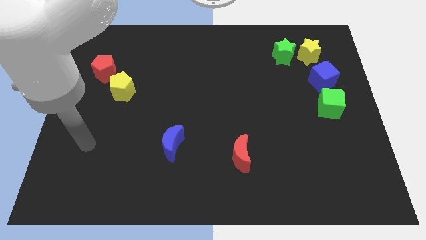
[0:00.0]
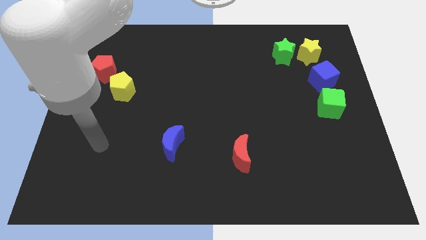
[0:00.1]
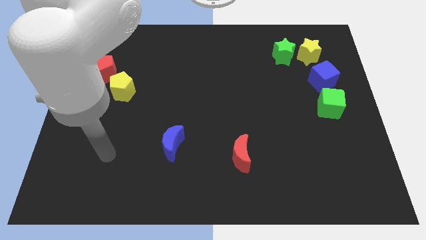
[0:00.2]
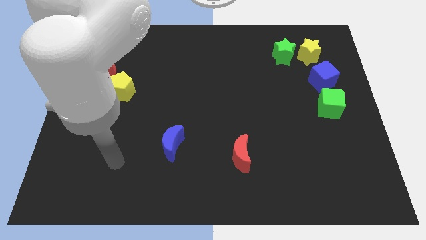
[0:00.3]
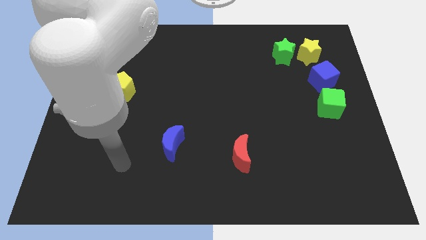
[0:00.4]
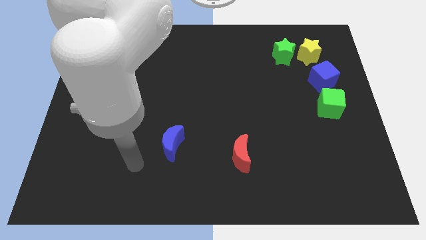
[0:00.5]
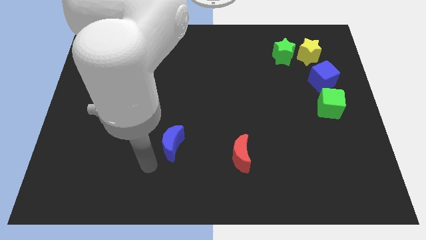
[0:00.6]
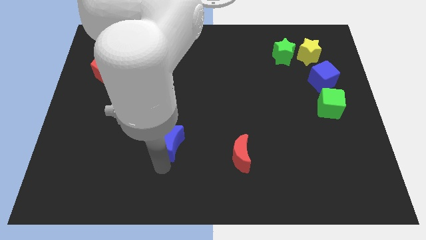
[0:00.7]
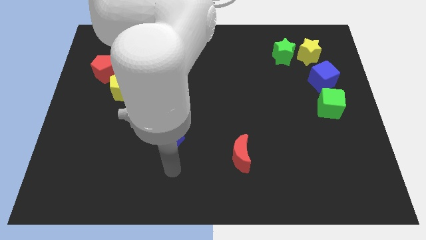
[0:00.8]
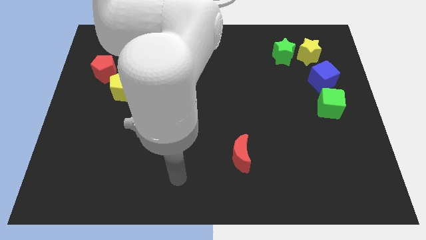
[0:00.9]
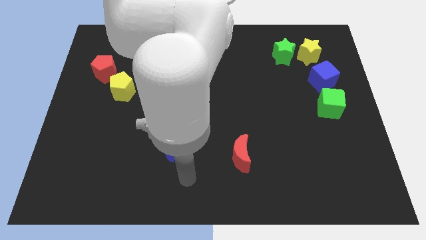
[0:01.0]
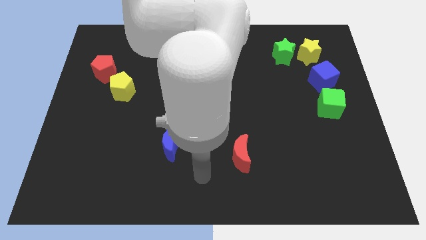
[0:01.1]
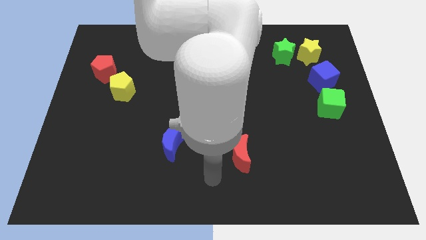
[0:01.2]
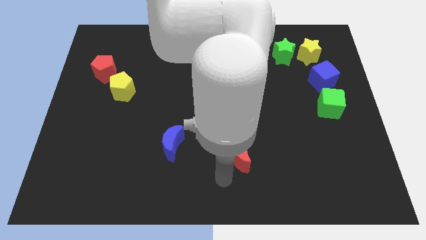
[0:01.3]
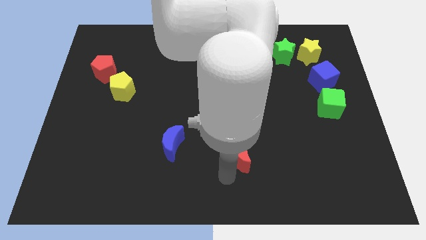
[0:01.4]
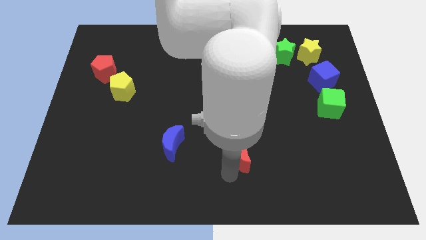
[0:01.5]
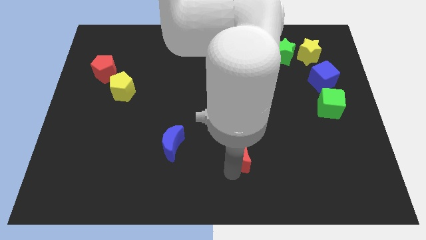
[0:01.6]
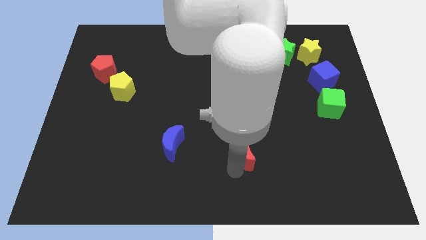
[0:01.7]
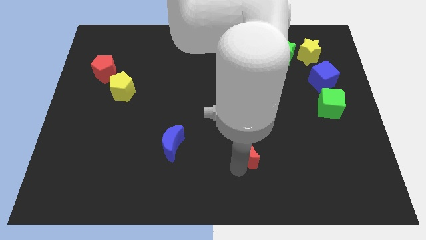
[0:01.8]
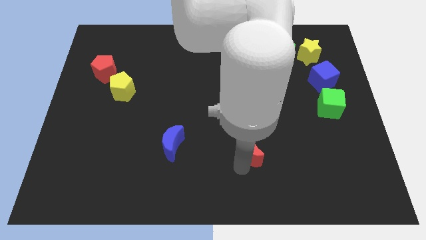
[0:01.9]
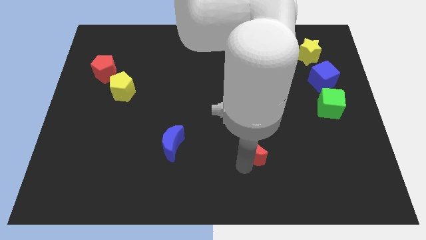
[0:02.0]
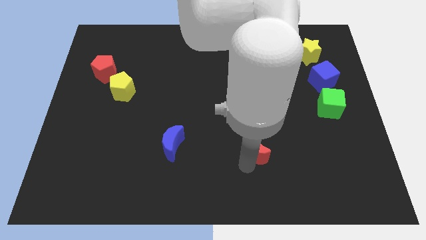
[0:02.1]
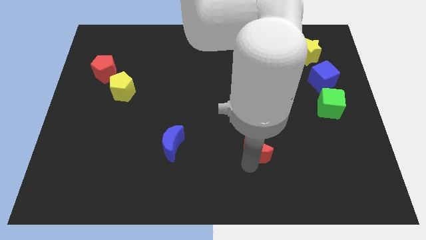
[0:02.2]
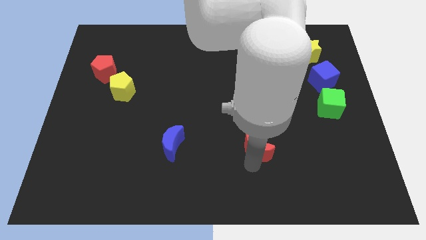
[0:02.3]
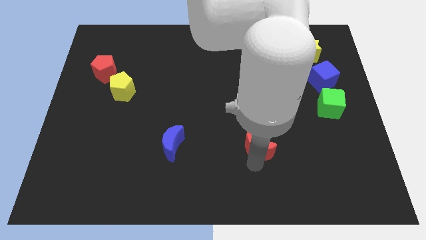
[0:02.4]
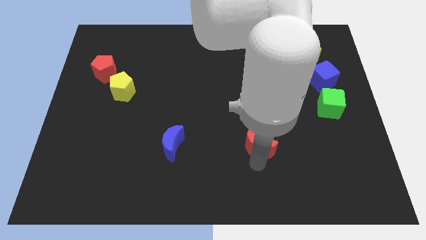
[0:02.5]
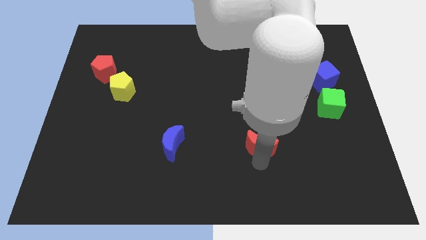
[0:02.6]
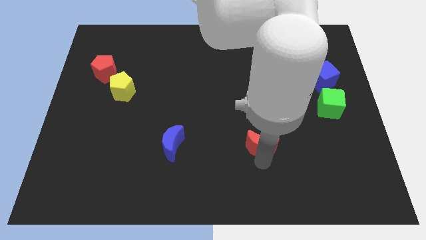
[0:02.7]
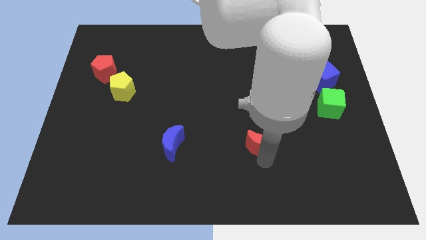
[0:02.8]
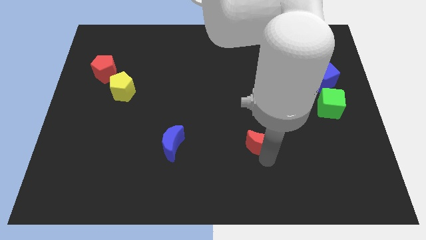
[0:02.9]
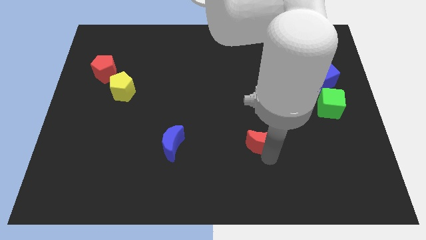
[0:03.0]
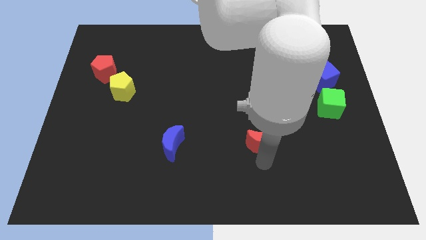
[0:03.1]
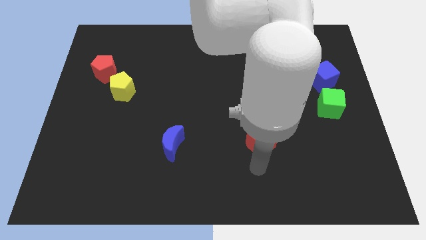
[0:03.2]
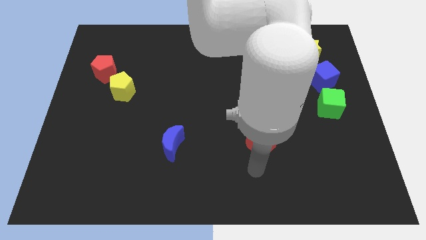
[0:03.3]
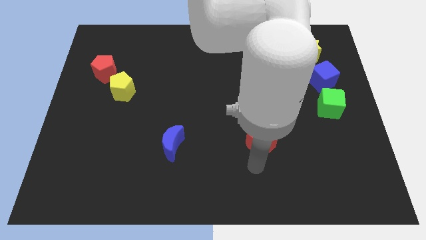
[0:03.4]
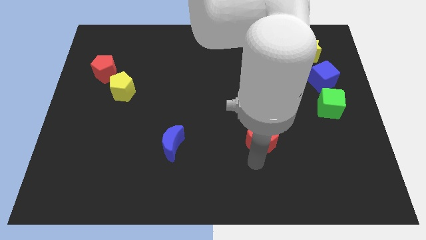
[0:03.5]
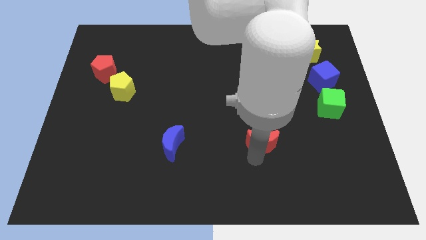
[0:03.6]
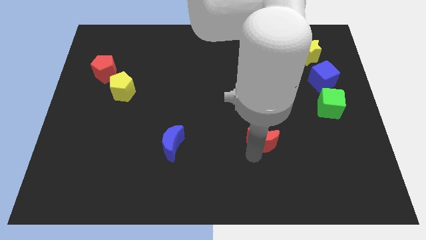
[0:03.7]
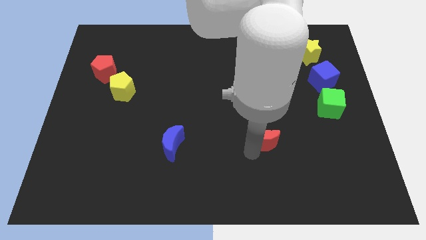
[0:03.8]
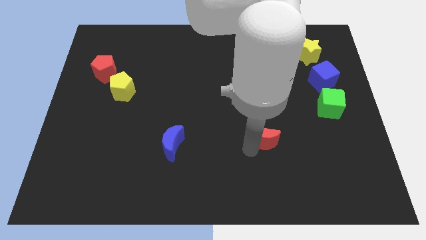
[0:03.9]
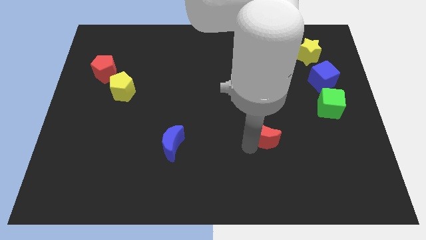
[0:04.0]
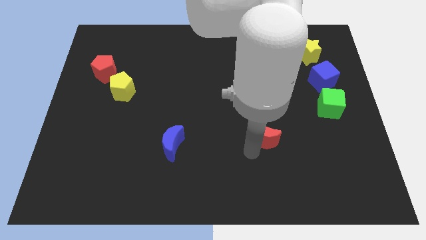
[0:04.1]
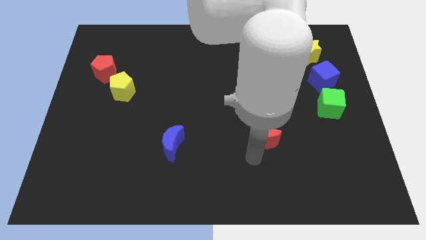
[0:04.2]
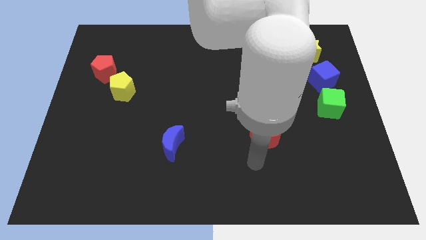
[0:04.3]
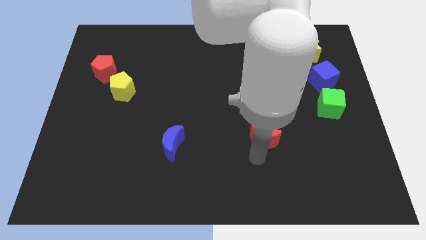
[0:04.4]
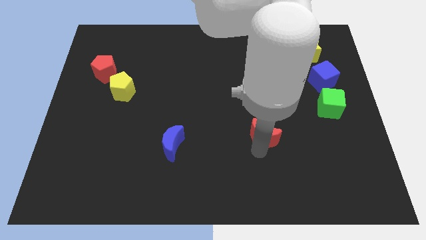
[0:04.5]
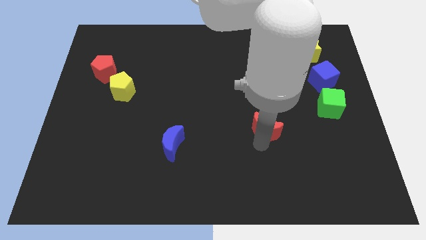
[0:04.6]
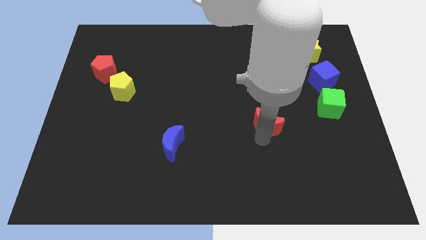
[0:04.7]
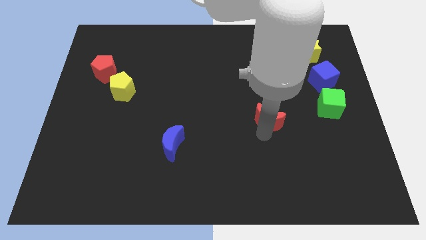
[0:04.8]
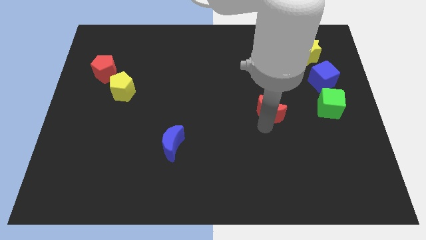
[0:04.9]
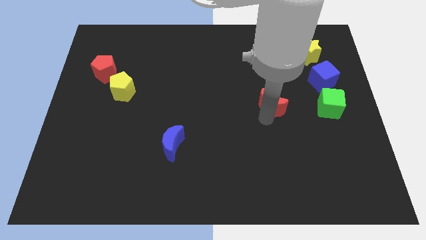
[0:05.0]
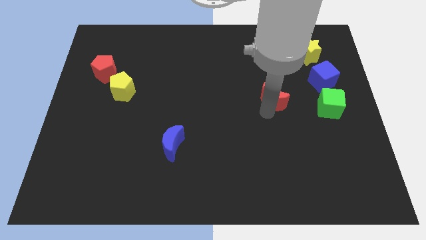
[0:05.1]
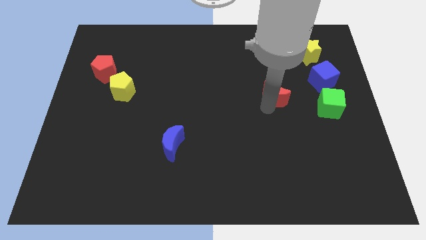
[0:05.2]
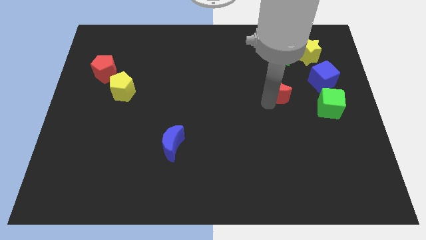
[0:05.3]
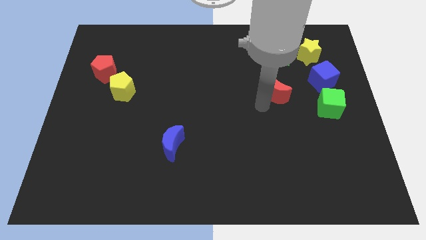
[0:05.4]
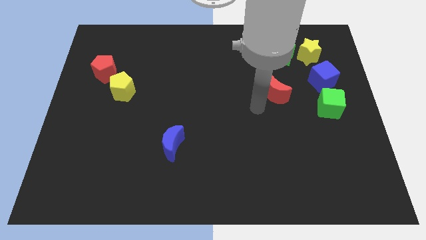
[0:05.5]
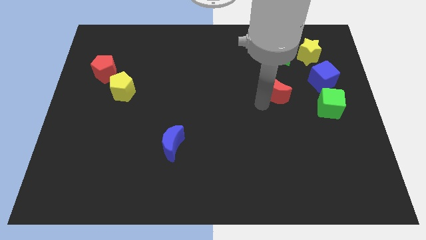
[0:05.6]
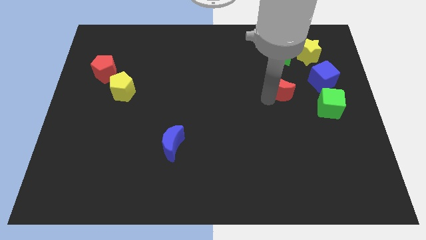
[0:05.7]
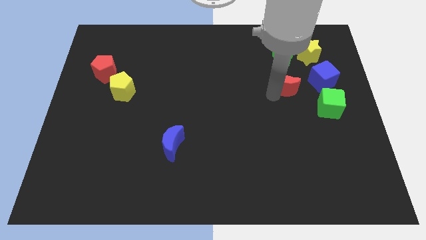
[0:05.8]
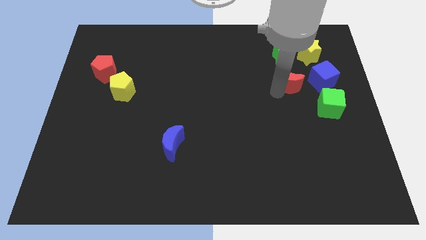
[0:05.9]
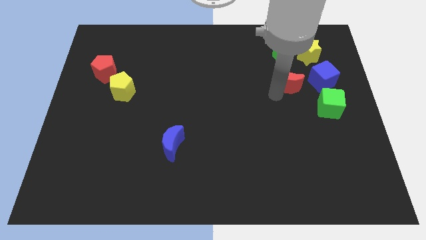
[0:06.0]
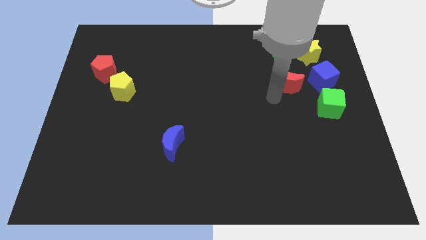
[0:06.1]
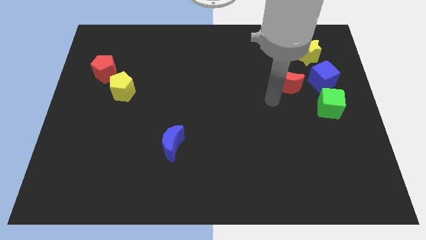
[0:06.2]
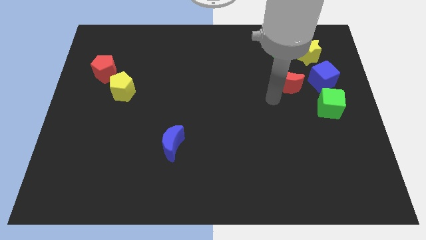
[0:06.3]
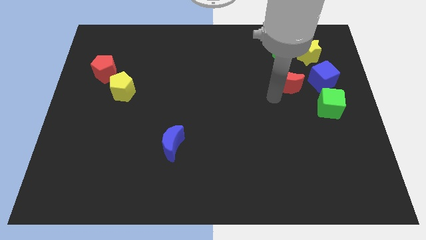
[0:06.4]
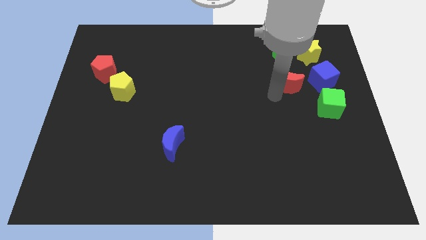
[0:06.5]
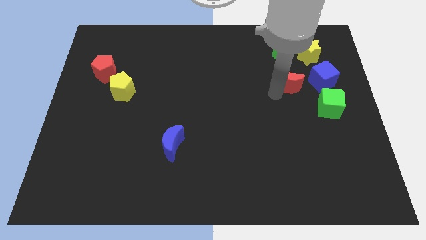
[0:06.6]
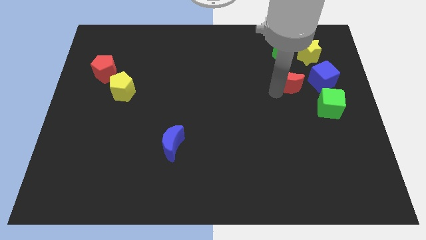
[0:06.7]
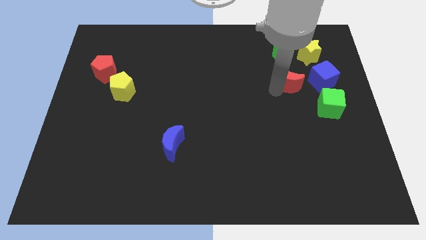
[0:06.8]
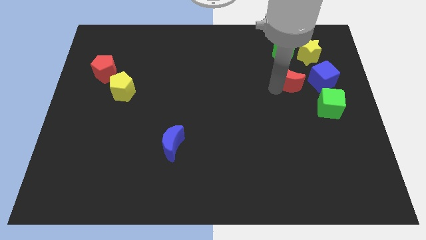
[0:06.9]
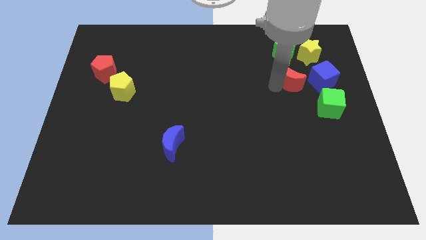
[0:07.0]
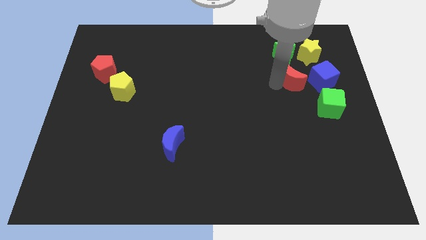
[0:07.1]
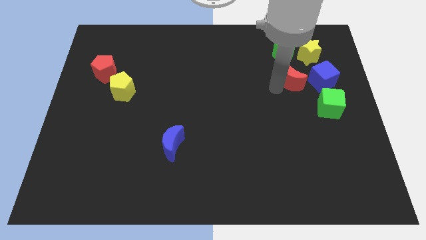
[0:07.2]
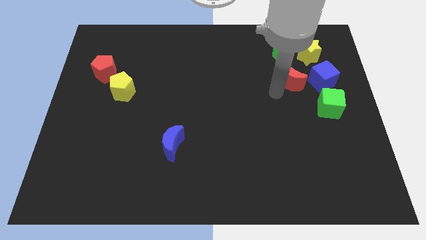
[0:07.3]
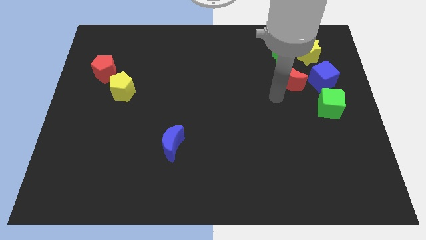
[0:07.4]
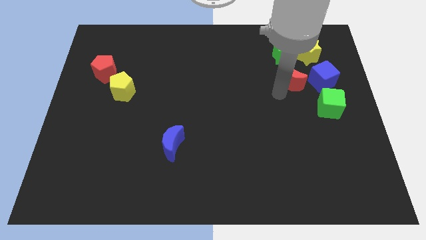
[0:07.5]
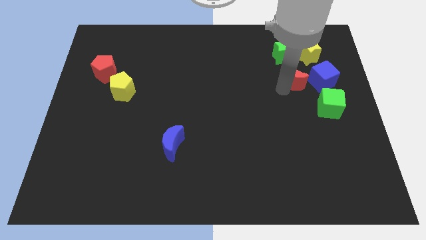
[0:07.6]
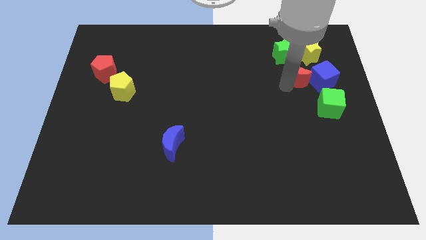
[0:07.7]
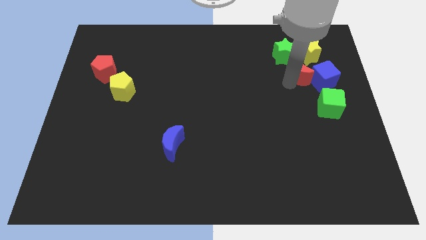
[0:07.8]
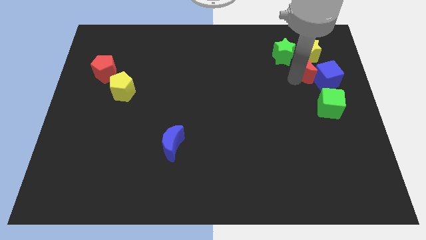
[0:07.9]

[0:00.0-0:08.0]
move the red moon next to the yellow star
